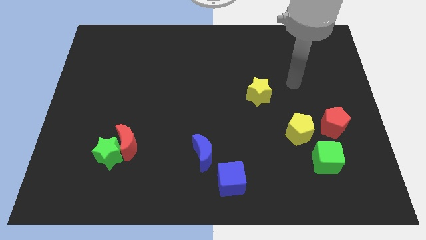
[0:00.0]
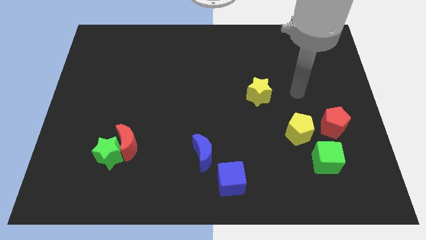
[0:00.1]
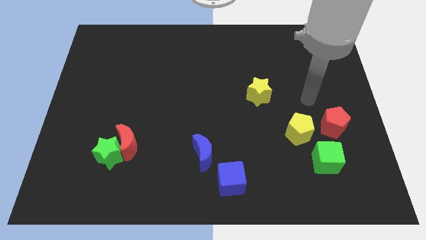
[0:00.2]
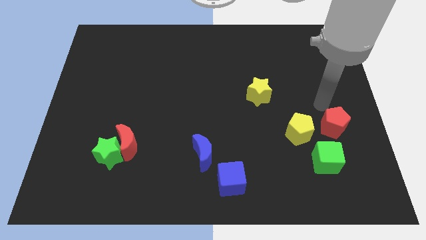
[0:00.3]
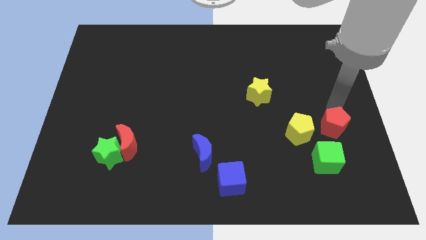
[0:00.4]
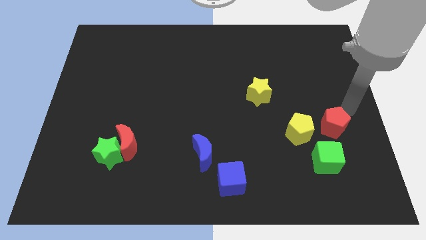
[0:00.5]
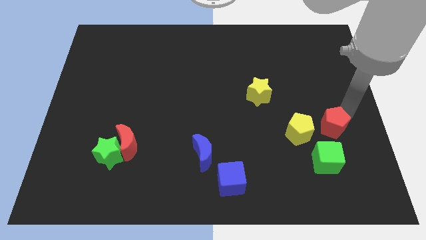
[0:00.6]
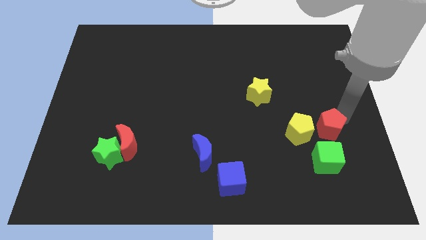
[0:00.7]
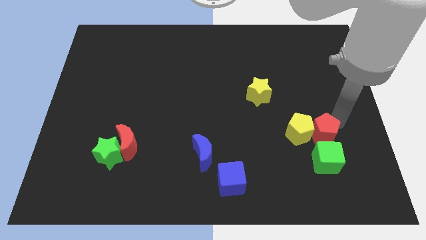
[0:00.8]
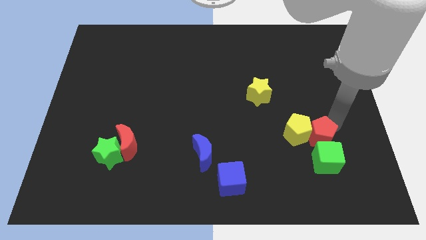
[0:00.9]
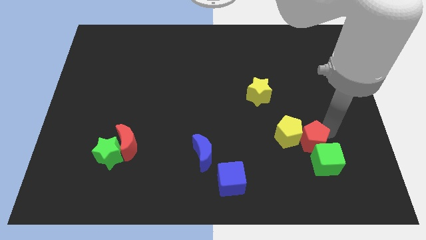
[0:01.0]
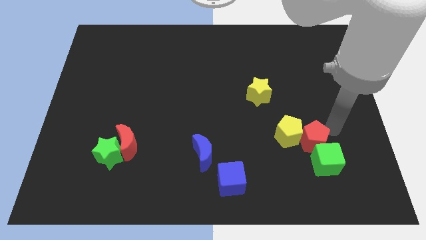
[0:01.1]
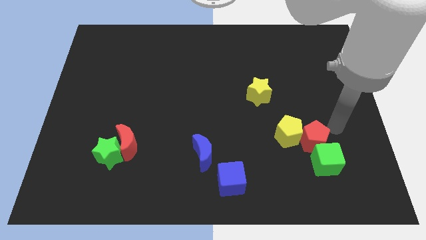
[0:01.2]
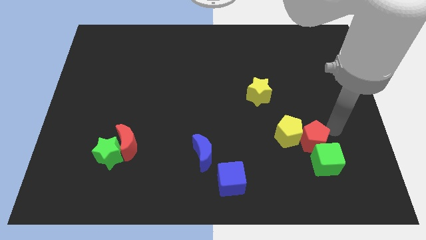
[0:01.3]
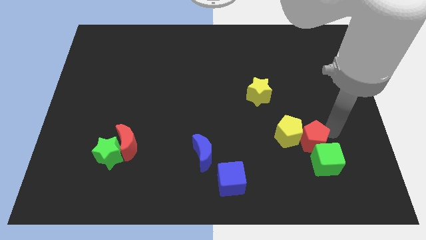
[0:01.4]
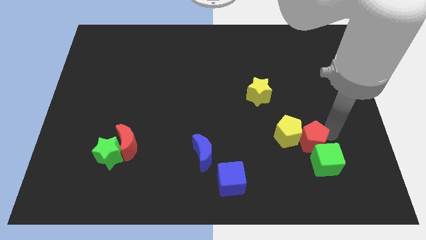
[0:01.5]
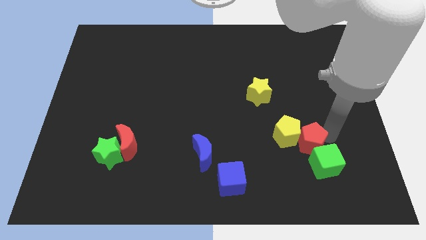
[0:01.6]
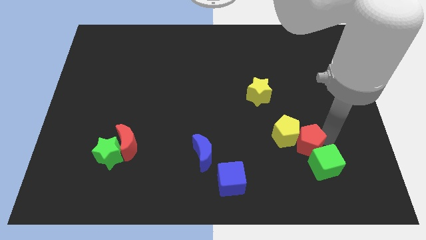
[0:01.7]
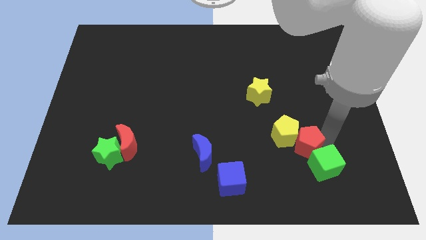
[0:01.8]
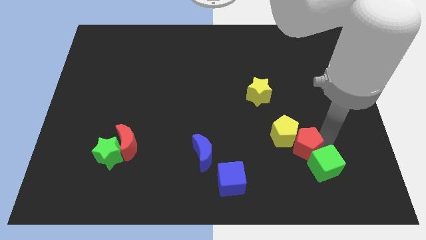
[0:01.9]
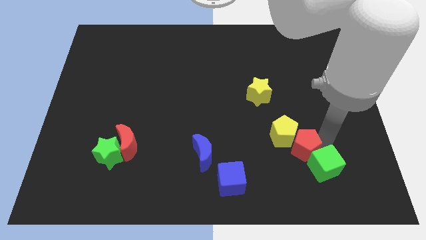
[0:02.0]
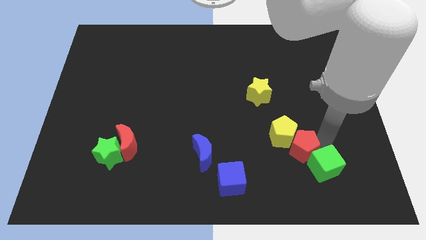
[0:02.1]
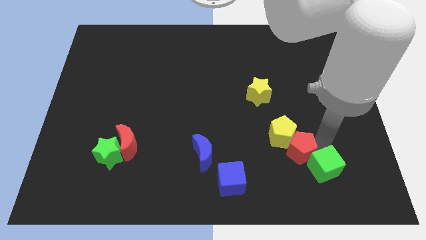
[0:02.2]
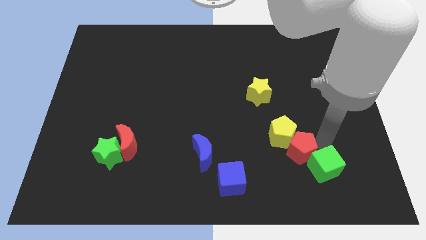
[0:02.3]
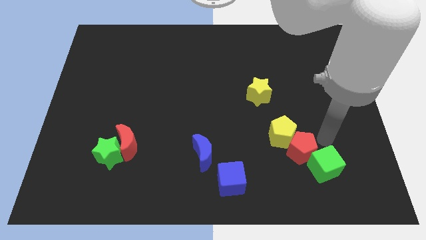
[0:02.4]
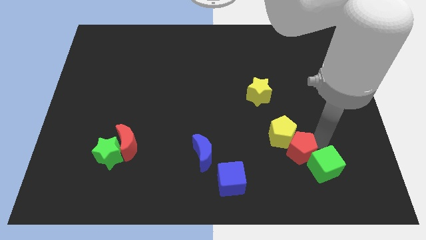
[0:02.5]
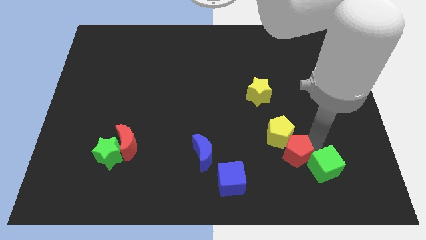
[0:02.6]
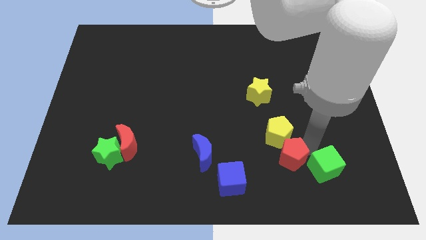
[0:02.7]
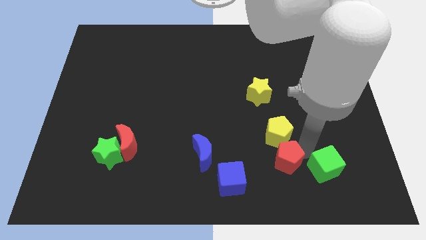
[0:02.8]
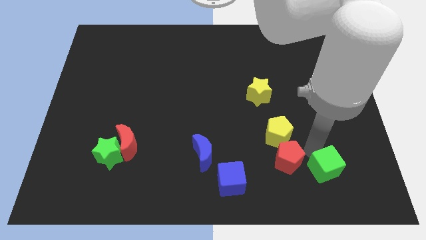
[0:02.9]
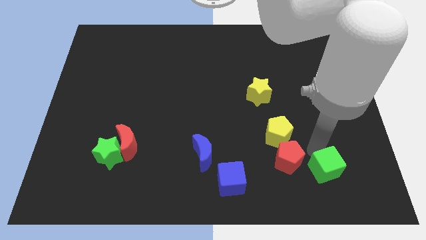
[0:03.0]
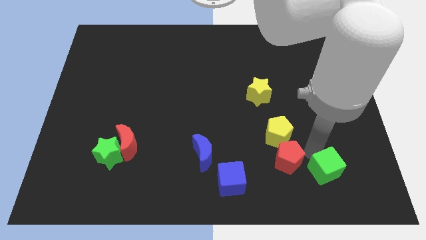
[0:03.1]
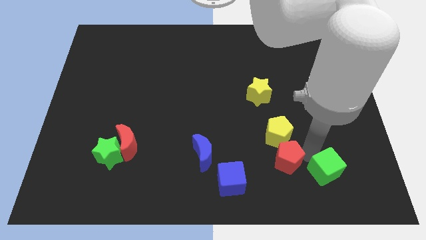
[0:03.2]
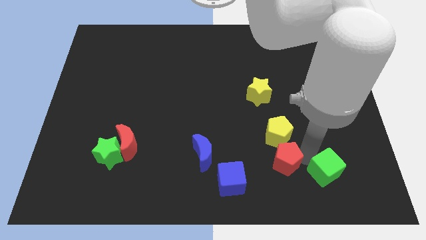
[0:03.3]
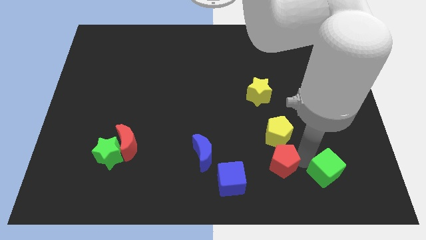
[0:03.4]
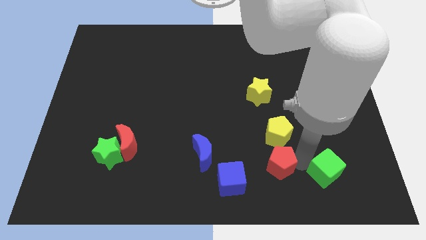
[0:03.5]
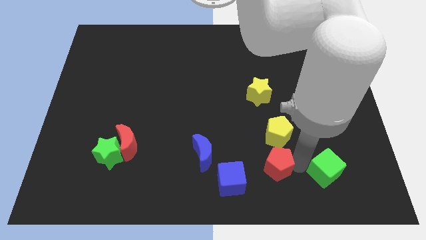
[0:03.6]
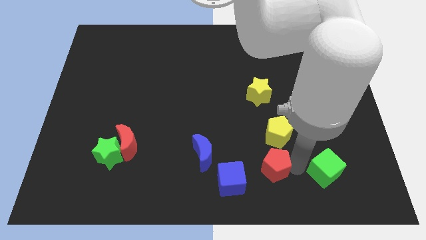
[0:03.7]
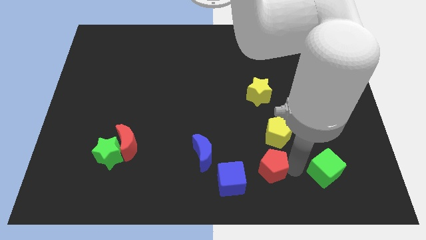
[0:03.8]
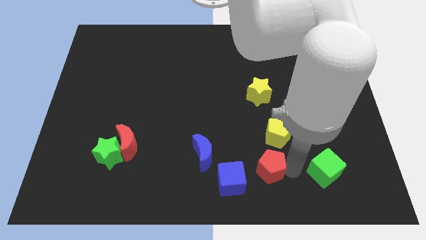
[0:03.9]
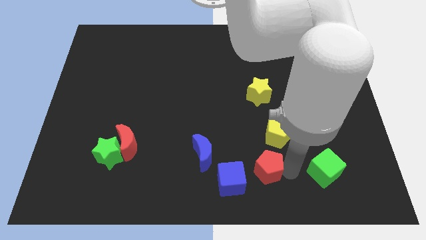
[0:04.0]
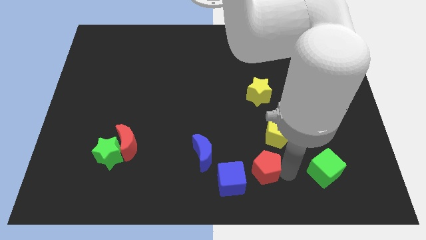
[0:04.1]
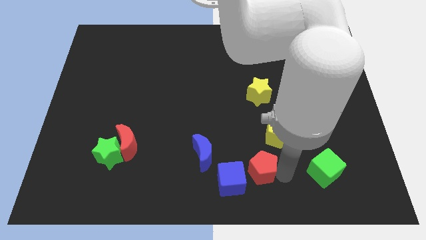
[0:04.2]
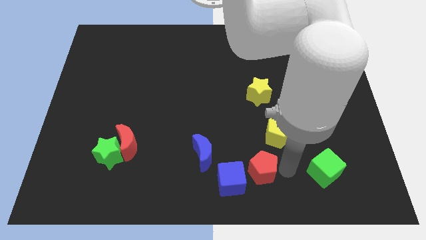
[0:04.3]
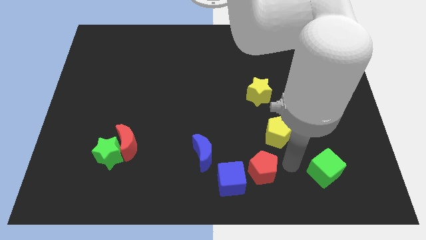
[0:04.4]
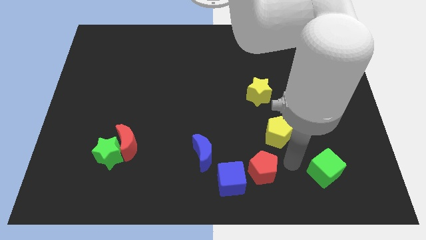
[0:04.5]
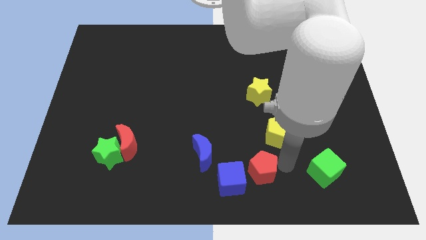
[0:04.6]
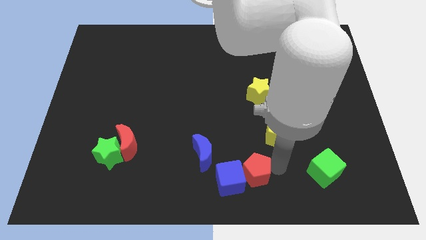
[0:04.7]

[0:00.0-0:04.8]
put the red pentagon to the blue cube

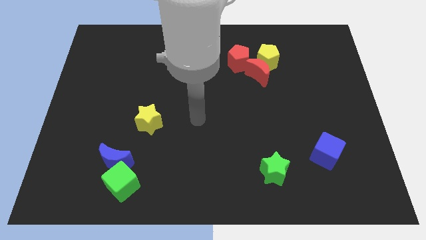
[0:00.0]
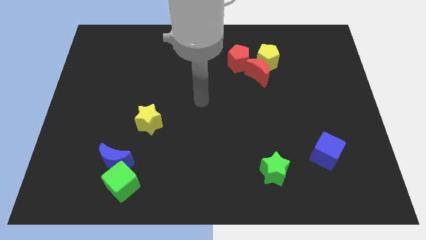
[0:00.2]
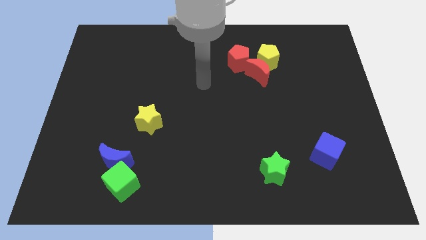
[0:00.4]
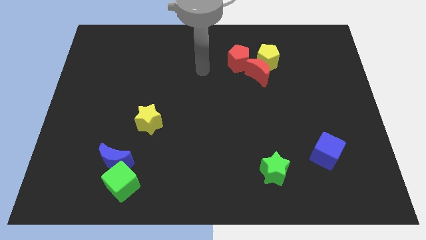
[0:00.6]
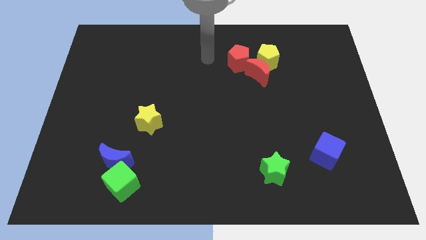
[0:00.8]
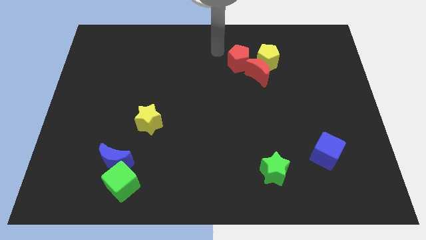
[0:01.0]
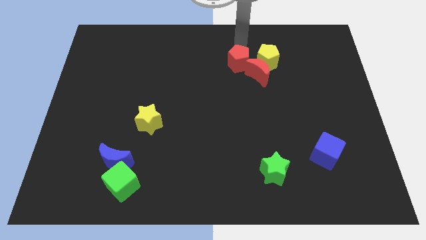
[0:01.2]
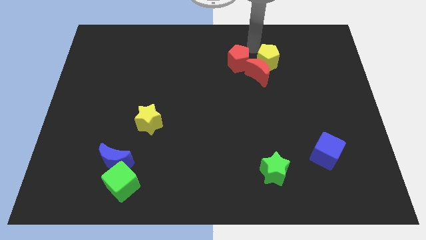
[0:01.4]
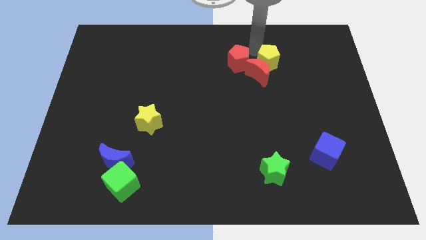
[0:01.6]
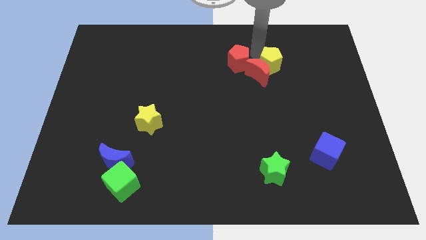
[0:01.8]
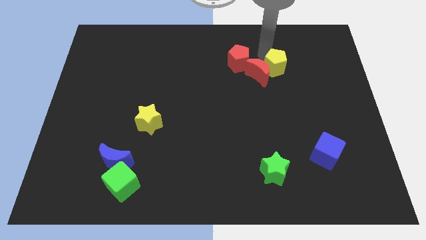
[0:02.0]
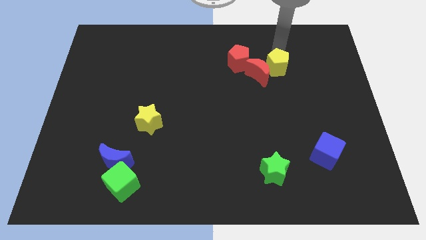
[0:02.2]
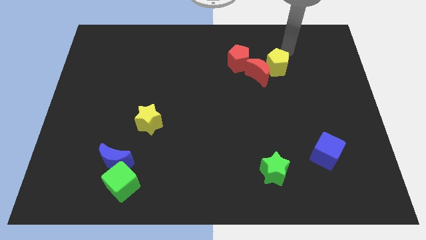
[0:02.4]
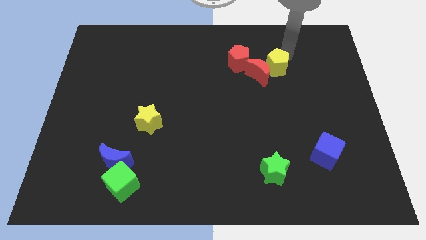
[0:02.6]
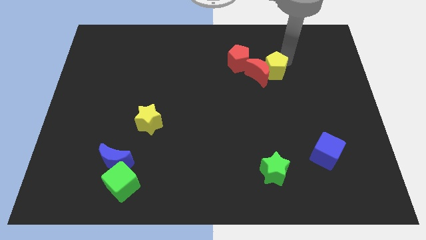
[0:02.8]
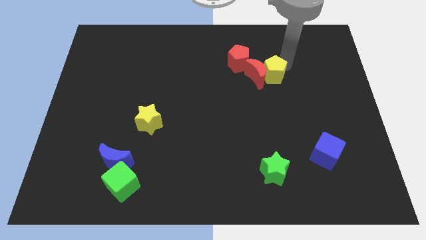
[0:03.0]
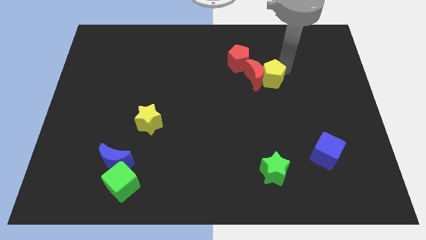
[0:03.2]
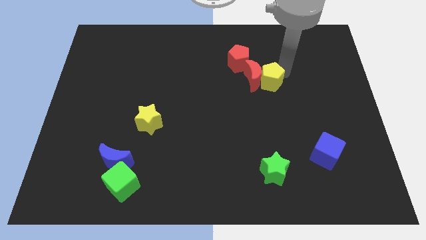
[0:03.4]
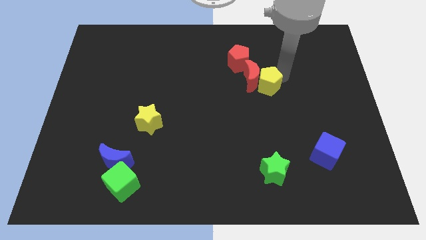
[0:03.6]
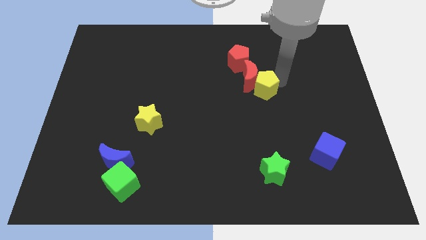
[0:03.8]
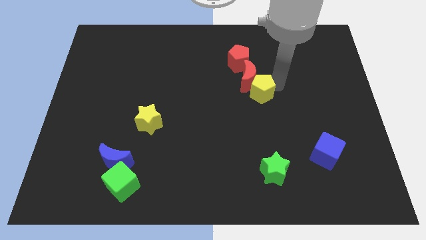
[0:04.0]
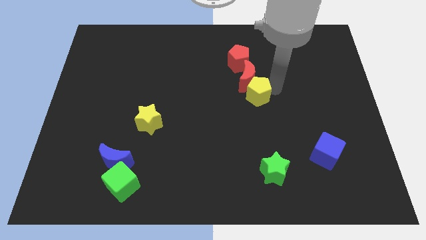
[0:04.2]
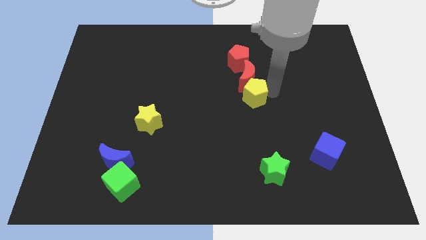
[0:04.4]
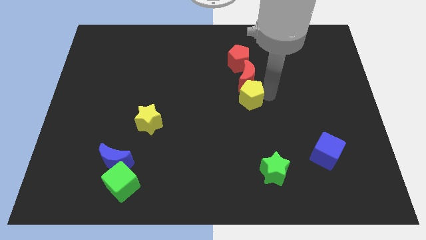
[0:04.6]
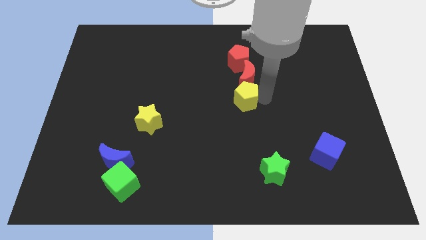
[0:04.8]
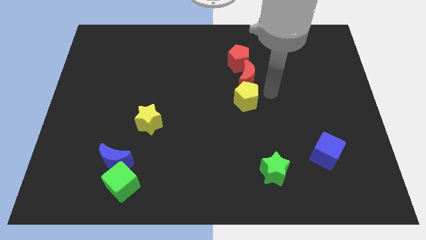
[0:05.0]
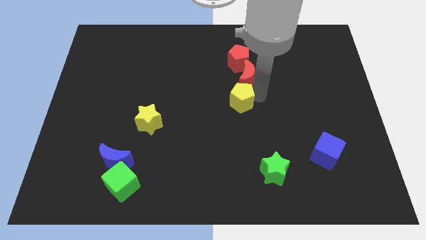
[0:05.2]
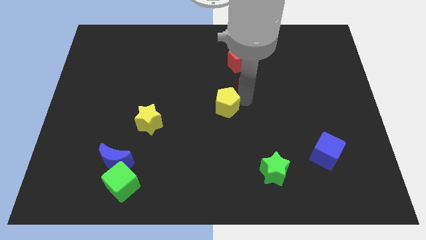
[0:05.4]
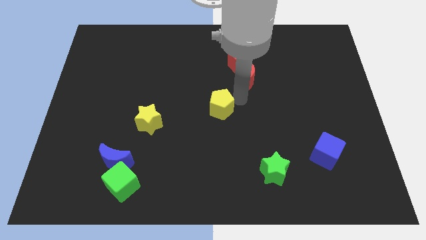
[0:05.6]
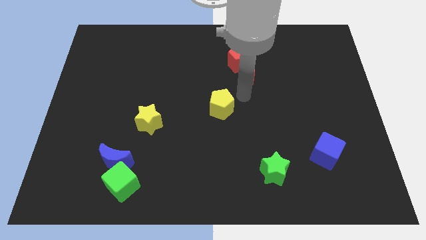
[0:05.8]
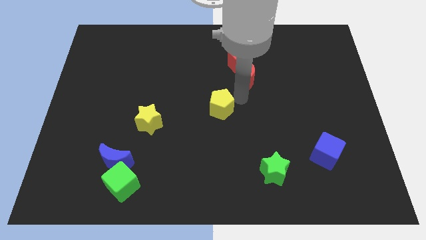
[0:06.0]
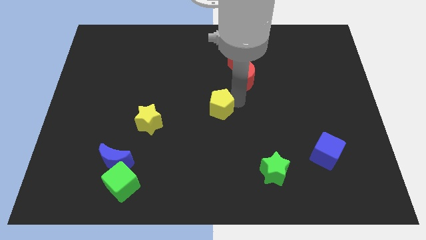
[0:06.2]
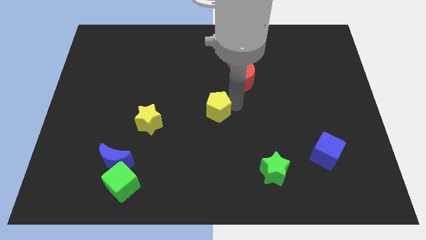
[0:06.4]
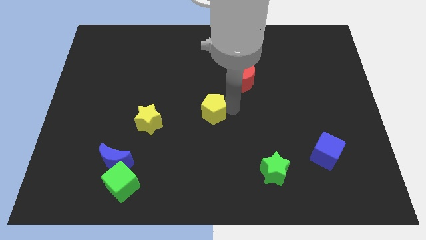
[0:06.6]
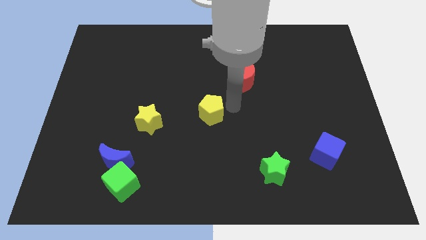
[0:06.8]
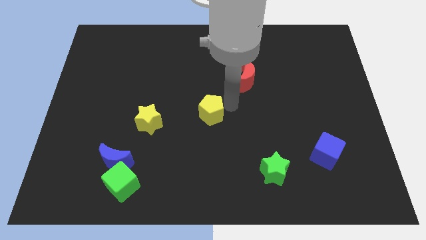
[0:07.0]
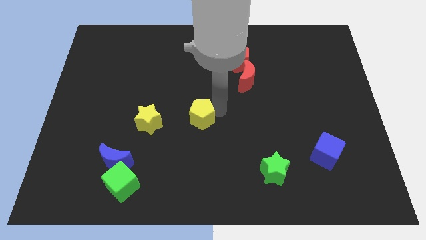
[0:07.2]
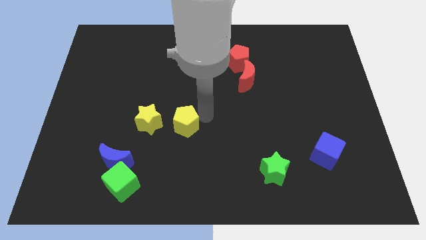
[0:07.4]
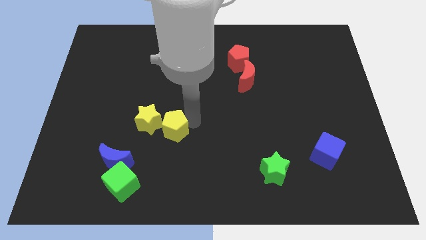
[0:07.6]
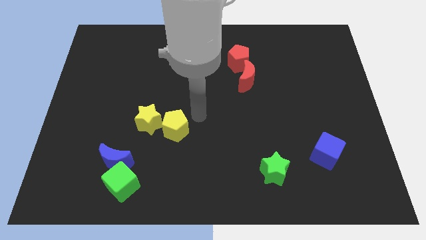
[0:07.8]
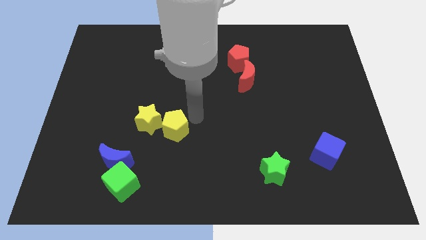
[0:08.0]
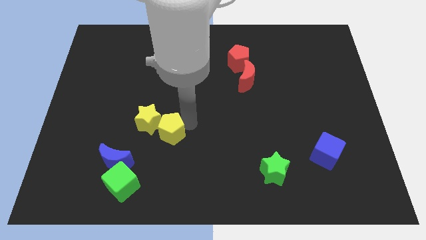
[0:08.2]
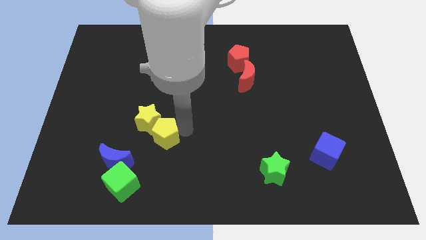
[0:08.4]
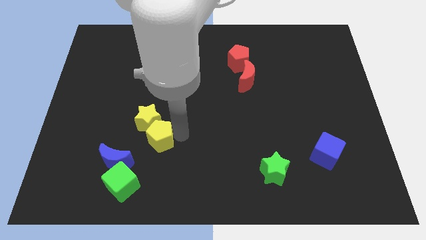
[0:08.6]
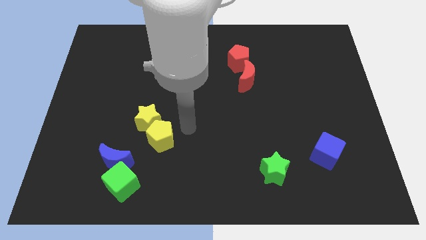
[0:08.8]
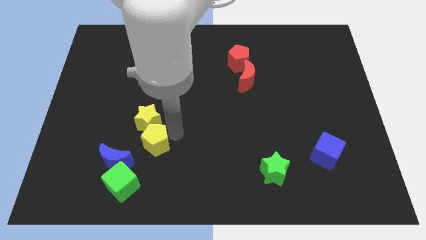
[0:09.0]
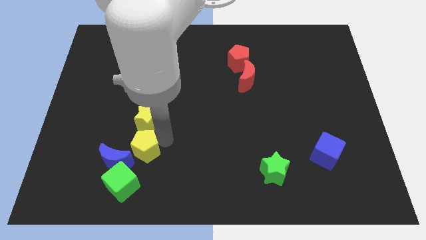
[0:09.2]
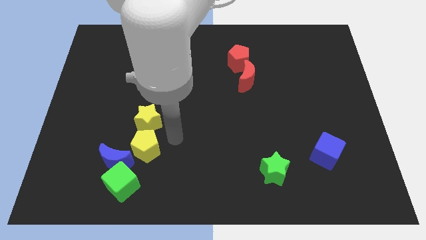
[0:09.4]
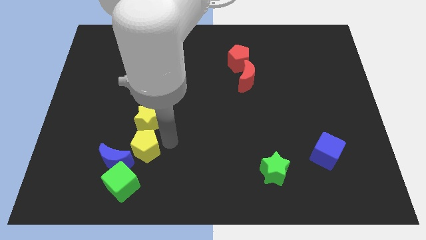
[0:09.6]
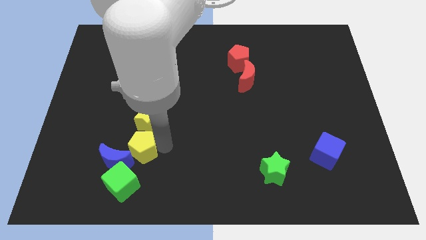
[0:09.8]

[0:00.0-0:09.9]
slide the yellow pentagon towards the blue moon
